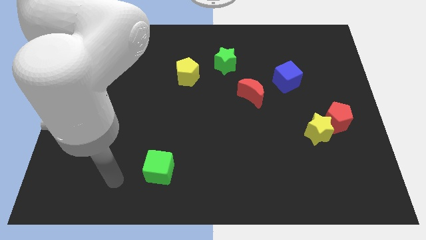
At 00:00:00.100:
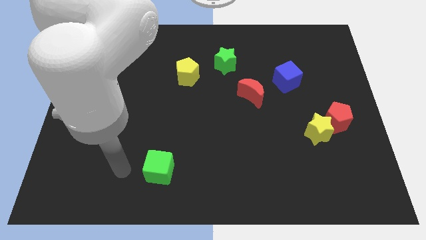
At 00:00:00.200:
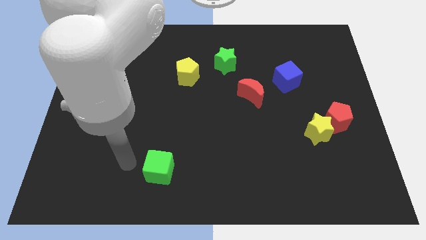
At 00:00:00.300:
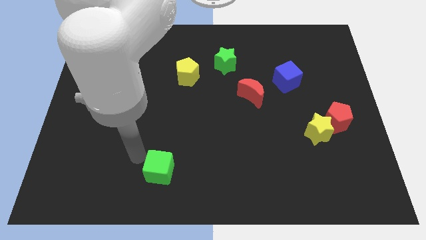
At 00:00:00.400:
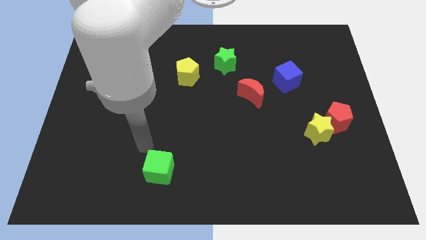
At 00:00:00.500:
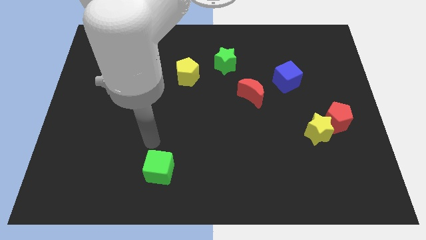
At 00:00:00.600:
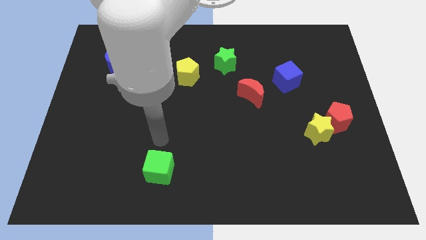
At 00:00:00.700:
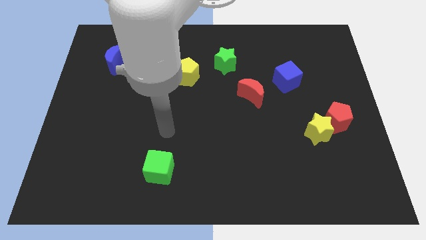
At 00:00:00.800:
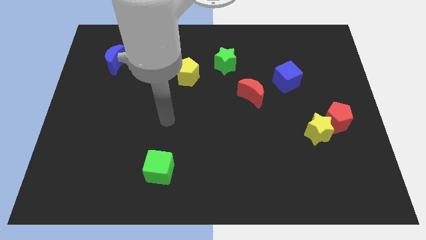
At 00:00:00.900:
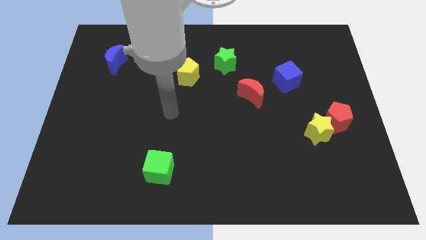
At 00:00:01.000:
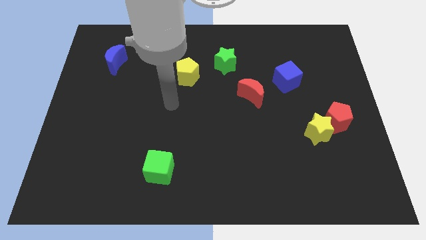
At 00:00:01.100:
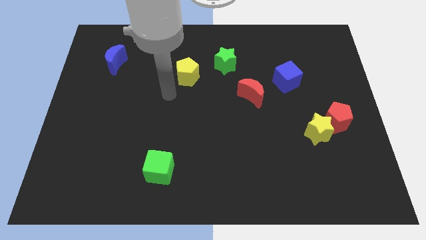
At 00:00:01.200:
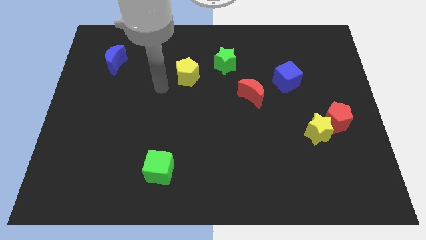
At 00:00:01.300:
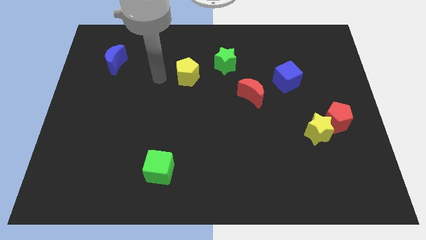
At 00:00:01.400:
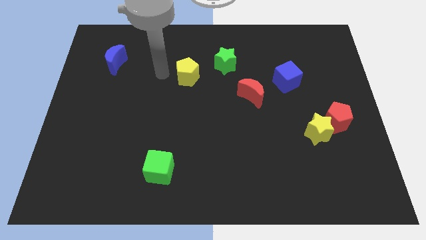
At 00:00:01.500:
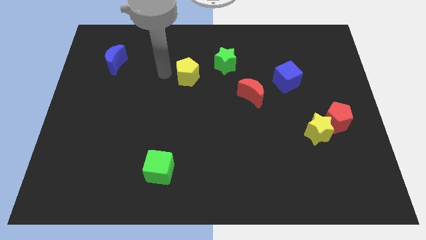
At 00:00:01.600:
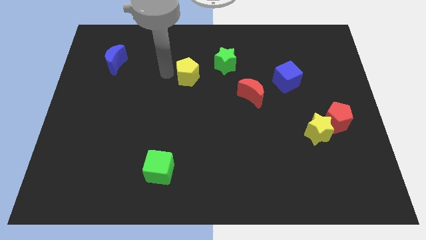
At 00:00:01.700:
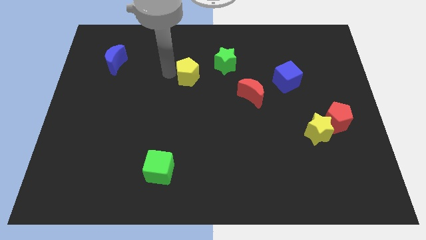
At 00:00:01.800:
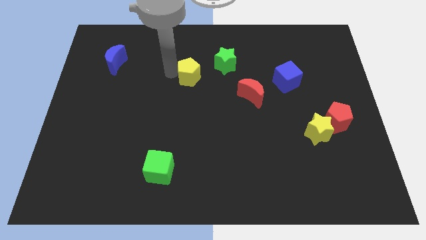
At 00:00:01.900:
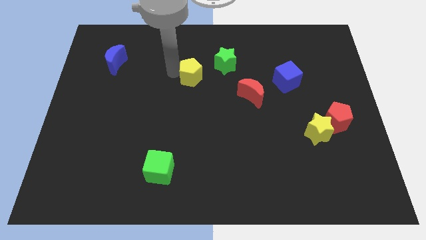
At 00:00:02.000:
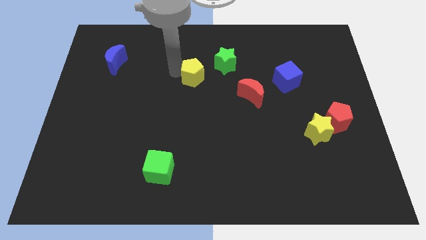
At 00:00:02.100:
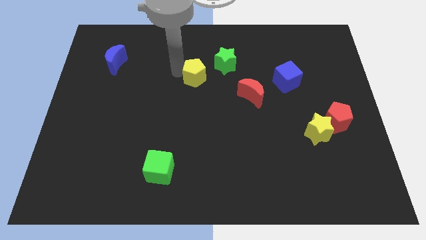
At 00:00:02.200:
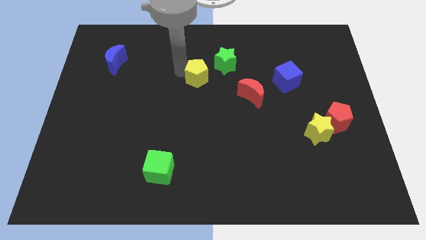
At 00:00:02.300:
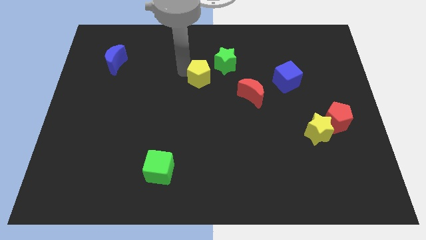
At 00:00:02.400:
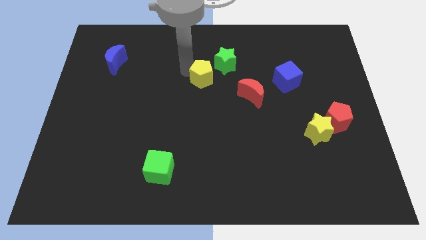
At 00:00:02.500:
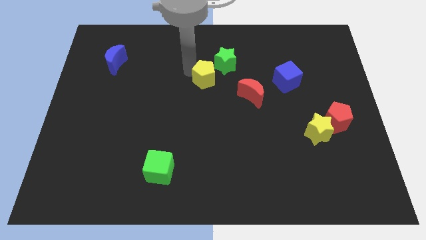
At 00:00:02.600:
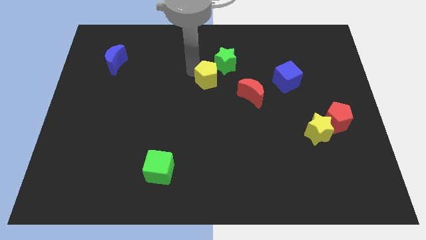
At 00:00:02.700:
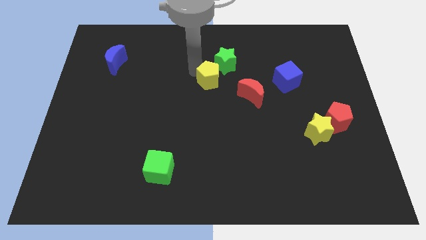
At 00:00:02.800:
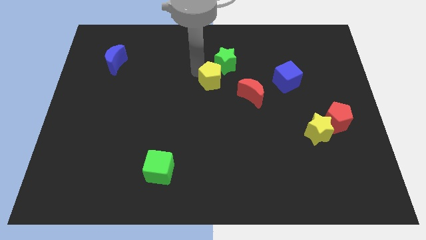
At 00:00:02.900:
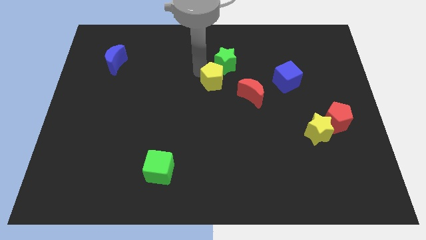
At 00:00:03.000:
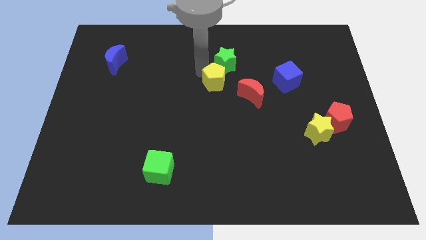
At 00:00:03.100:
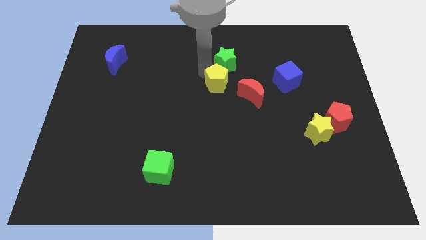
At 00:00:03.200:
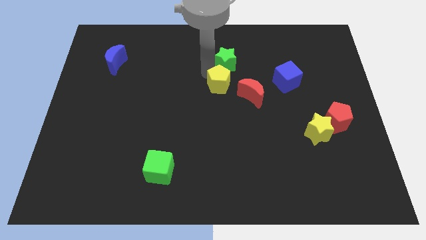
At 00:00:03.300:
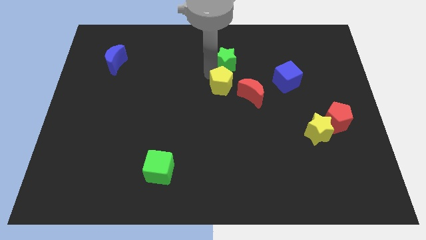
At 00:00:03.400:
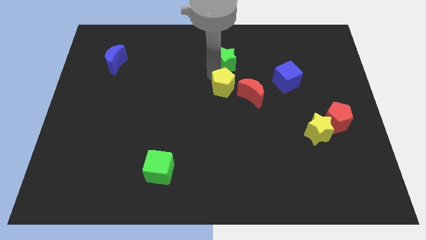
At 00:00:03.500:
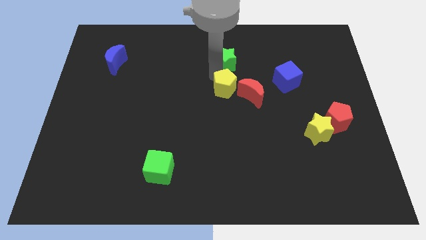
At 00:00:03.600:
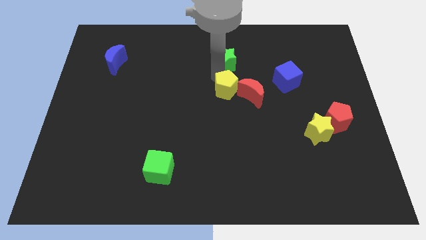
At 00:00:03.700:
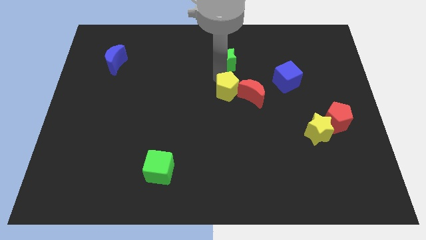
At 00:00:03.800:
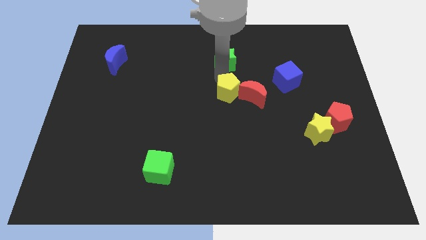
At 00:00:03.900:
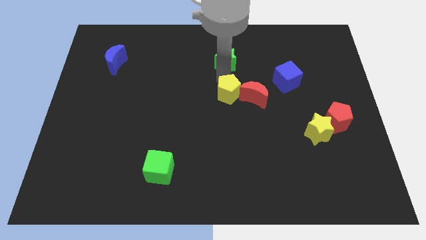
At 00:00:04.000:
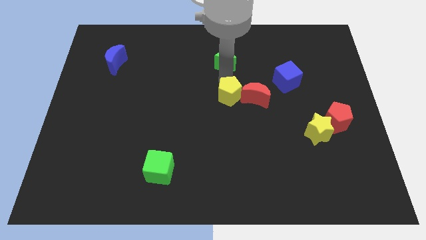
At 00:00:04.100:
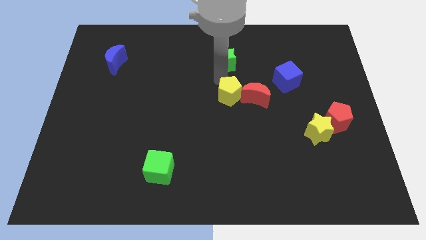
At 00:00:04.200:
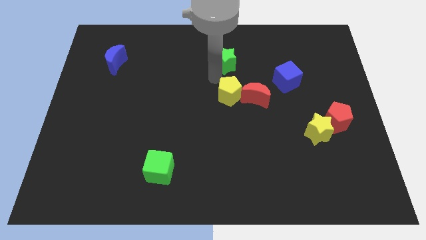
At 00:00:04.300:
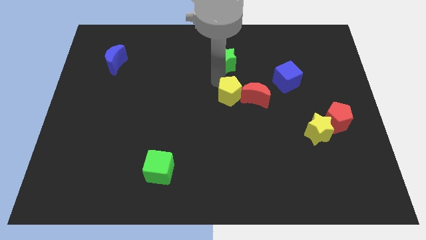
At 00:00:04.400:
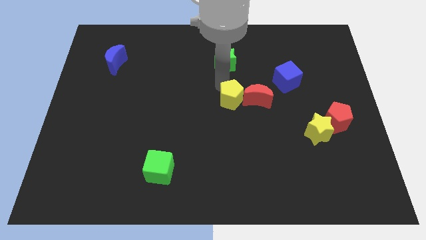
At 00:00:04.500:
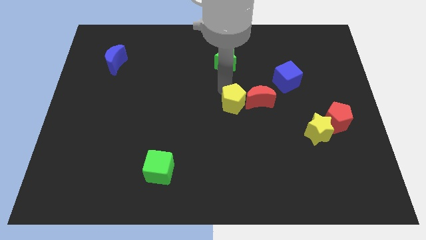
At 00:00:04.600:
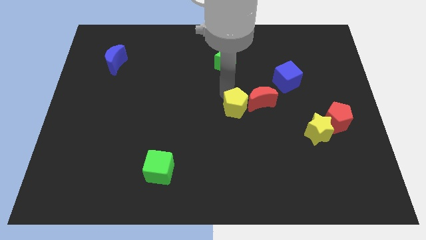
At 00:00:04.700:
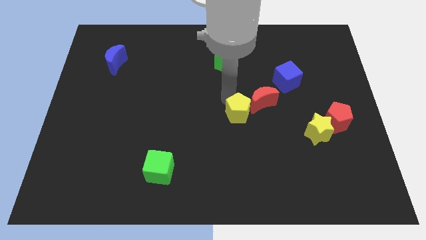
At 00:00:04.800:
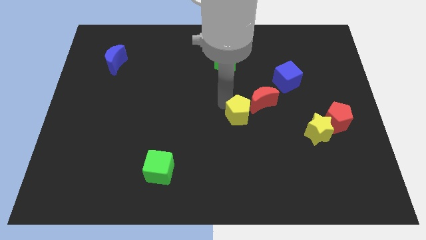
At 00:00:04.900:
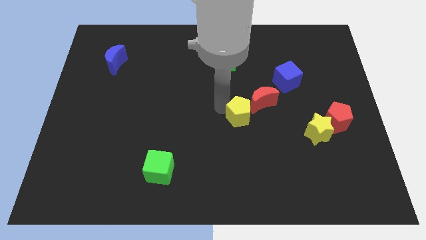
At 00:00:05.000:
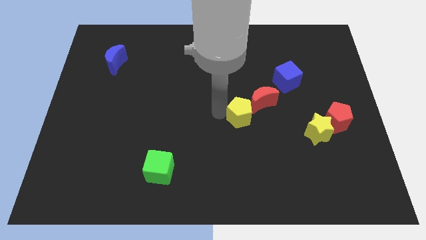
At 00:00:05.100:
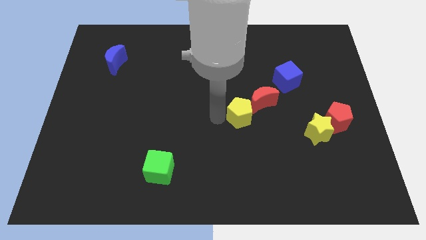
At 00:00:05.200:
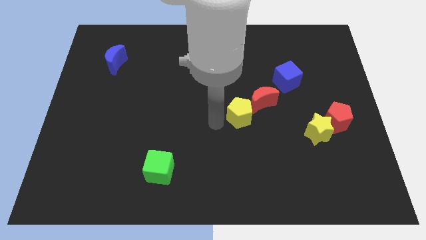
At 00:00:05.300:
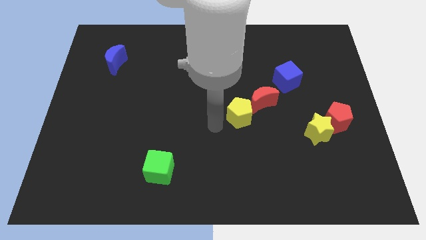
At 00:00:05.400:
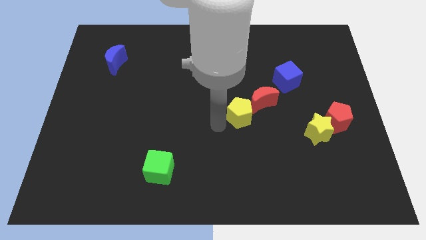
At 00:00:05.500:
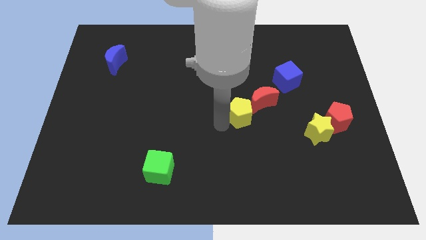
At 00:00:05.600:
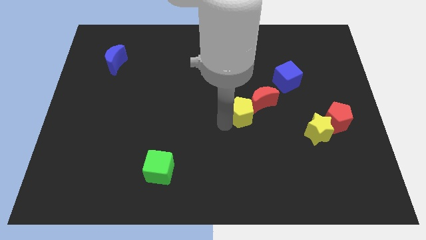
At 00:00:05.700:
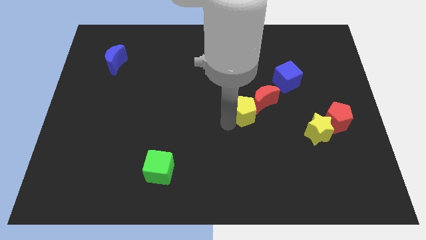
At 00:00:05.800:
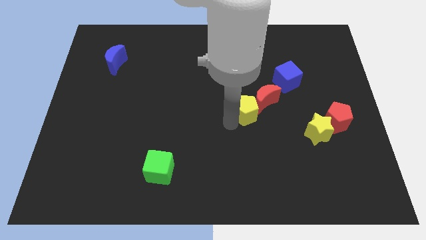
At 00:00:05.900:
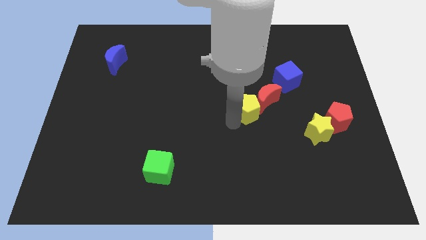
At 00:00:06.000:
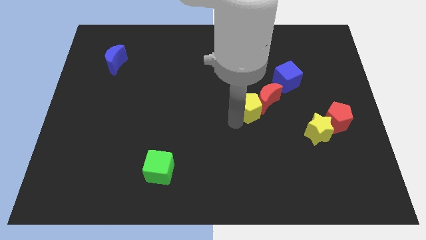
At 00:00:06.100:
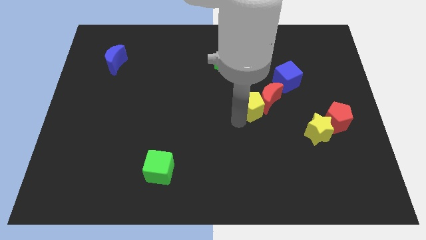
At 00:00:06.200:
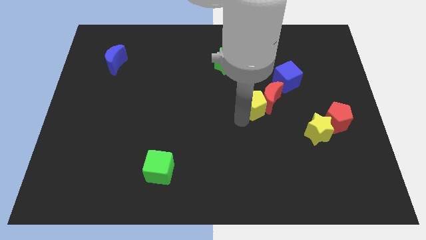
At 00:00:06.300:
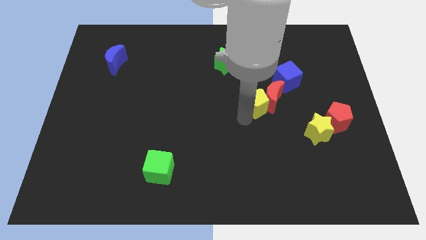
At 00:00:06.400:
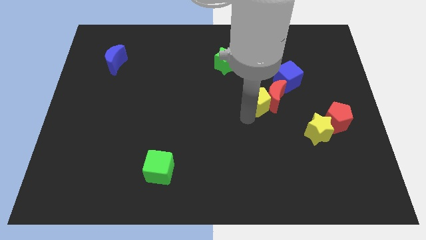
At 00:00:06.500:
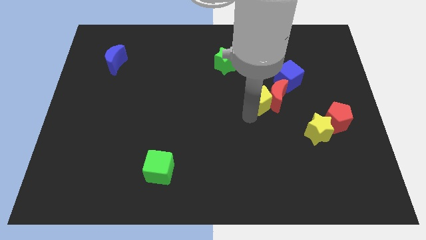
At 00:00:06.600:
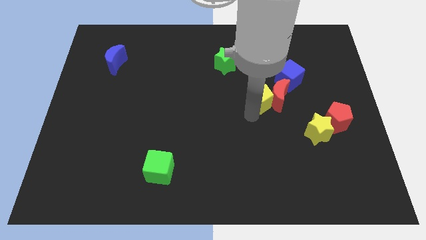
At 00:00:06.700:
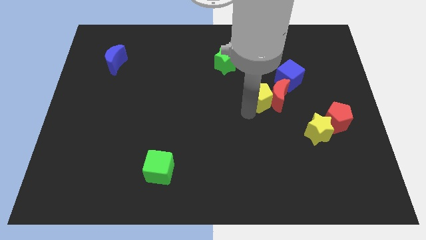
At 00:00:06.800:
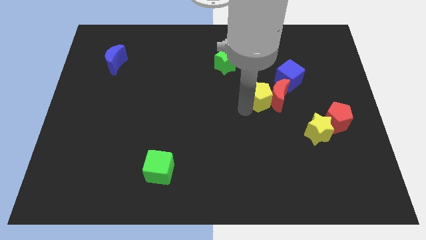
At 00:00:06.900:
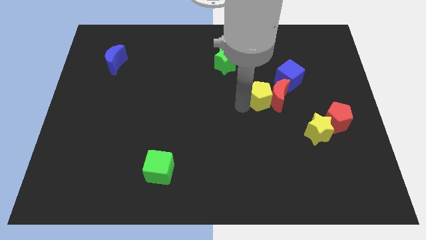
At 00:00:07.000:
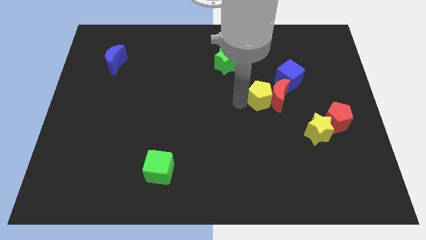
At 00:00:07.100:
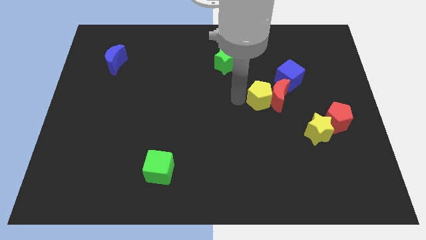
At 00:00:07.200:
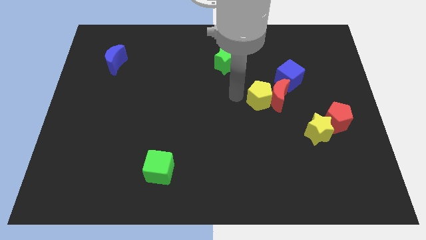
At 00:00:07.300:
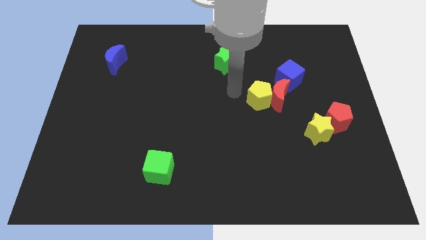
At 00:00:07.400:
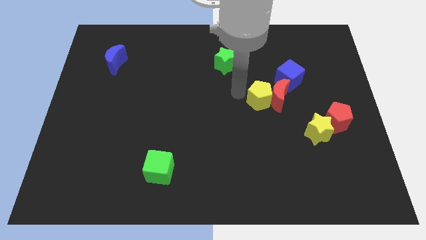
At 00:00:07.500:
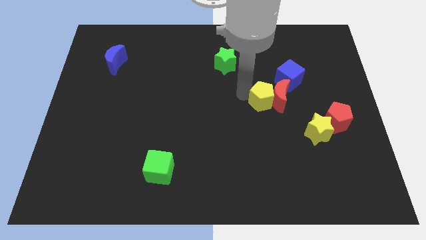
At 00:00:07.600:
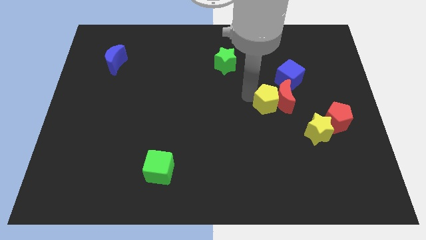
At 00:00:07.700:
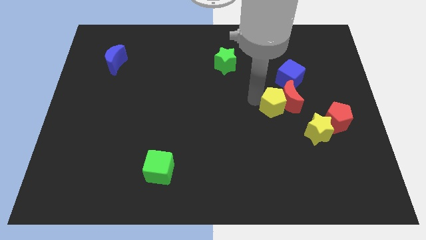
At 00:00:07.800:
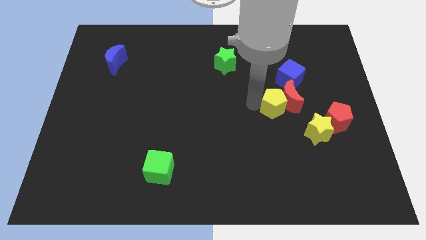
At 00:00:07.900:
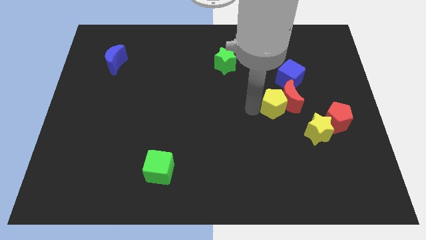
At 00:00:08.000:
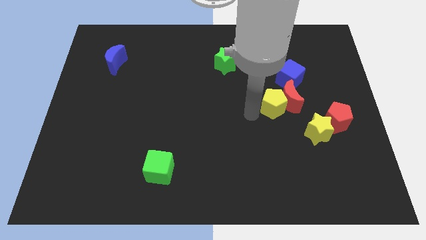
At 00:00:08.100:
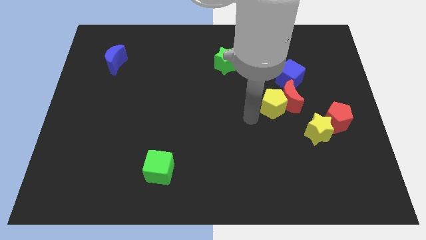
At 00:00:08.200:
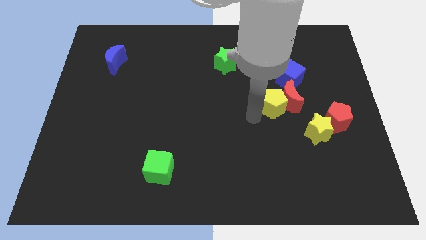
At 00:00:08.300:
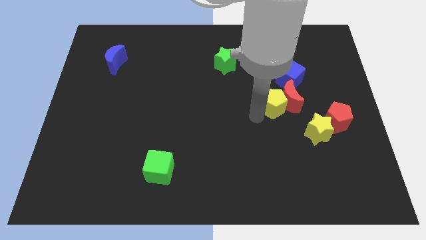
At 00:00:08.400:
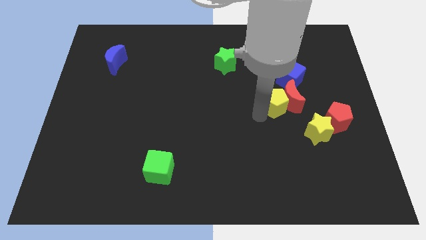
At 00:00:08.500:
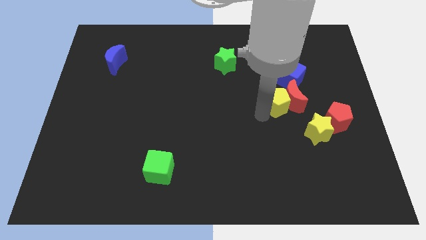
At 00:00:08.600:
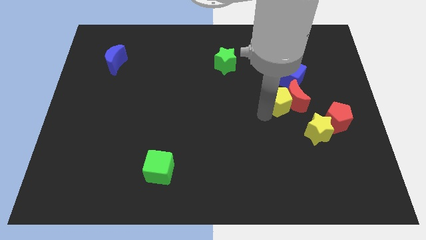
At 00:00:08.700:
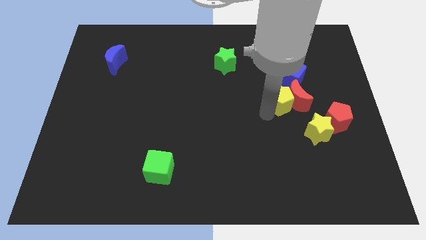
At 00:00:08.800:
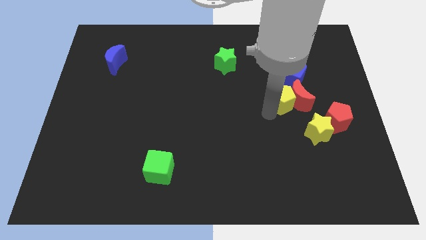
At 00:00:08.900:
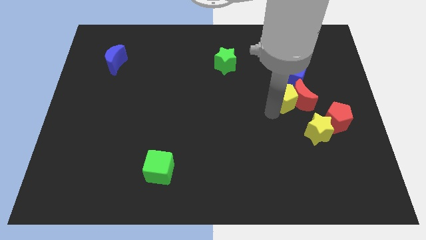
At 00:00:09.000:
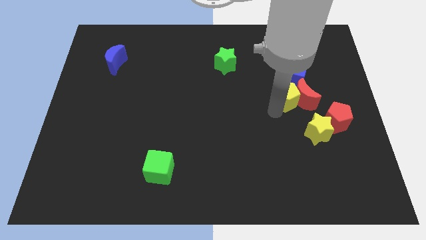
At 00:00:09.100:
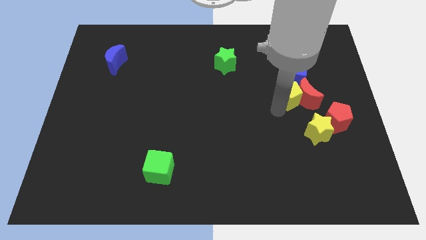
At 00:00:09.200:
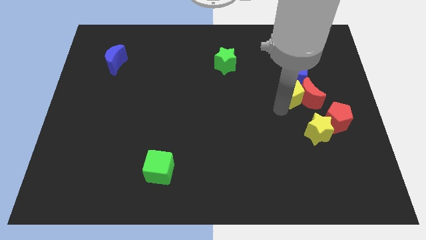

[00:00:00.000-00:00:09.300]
move the yellow pentagon to the top side of the yellow star
